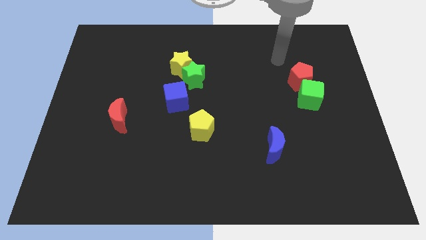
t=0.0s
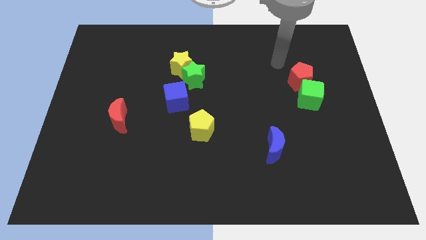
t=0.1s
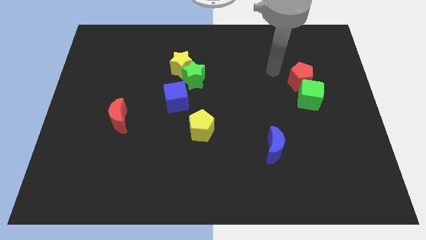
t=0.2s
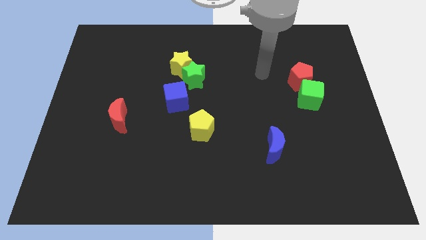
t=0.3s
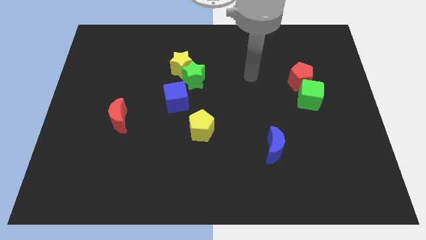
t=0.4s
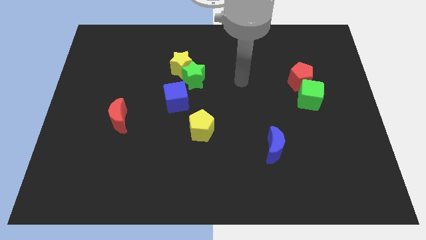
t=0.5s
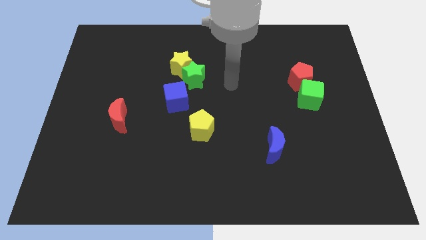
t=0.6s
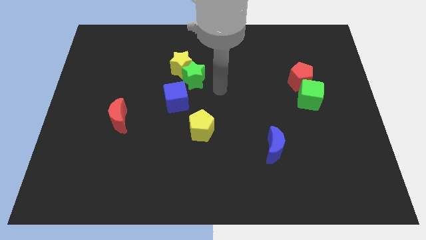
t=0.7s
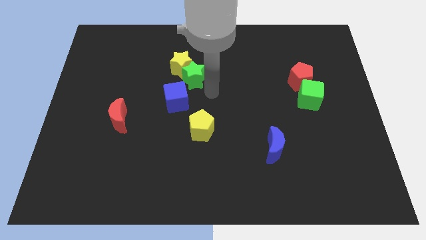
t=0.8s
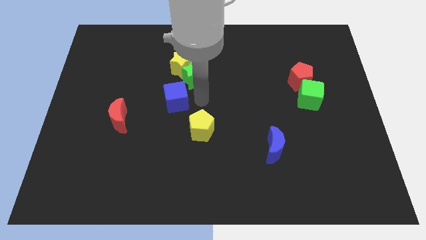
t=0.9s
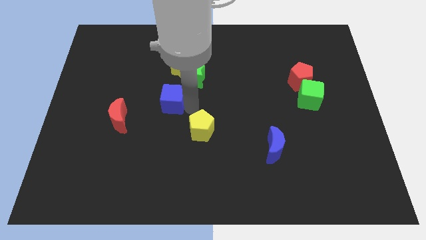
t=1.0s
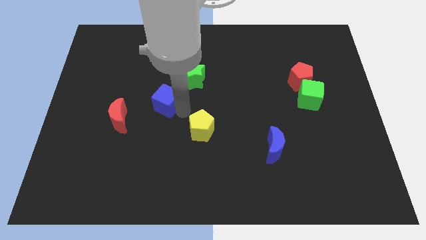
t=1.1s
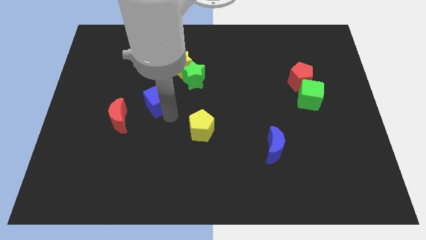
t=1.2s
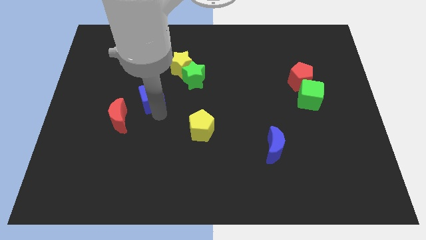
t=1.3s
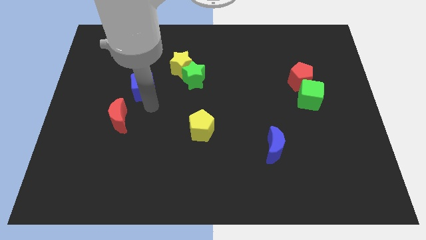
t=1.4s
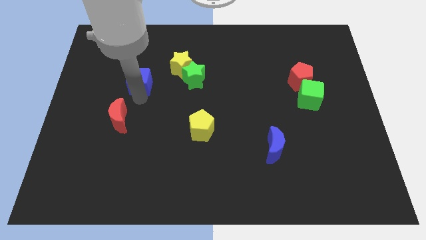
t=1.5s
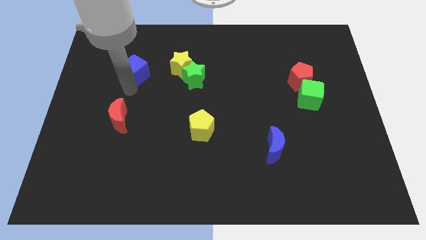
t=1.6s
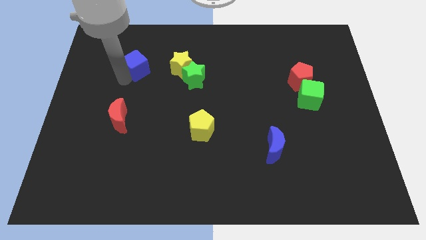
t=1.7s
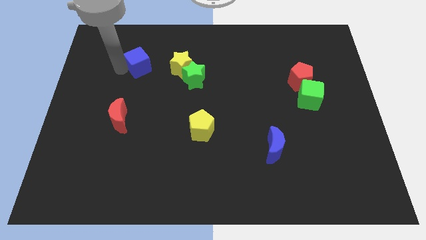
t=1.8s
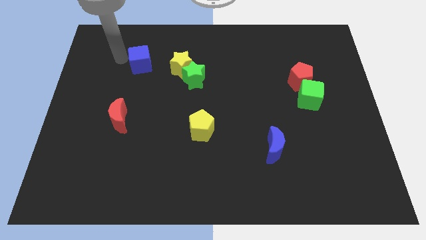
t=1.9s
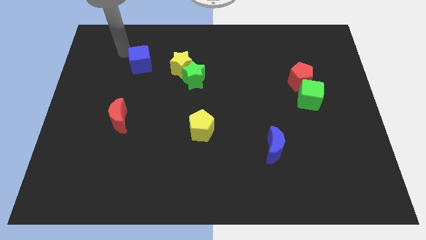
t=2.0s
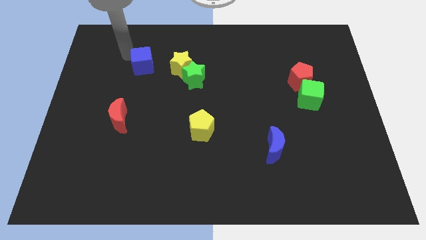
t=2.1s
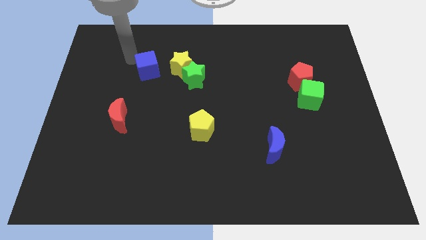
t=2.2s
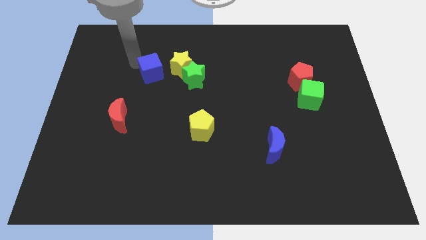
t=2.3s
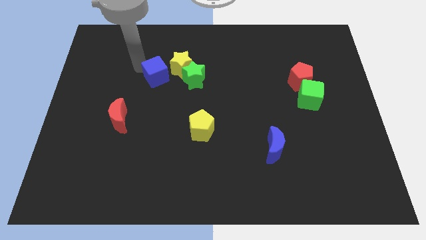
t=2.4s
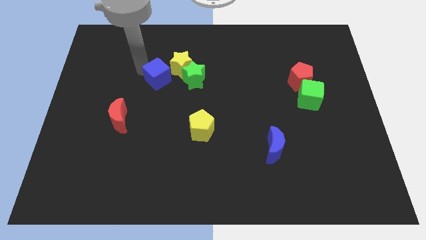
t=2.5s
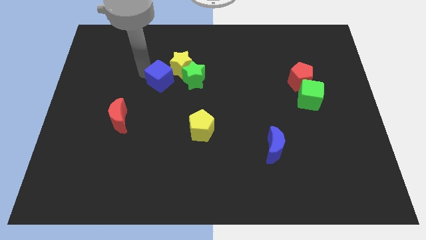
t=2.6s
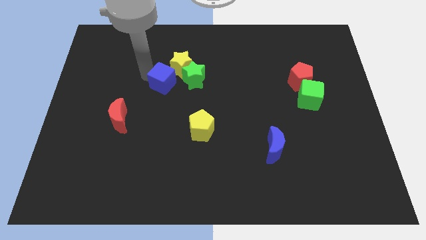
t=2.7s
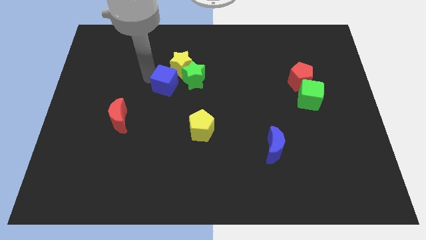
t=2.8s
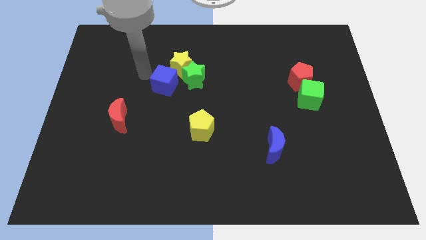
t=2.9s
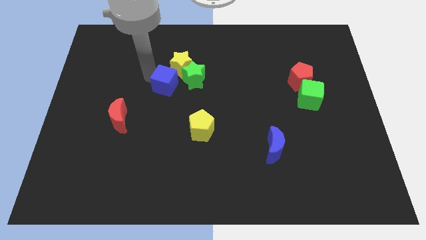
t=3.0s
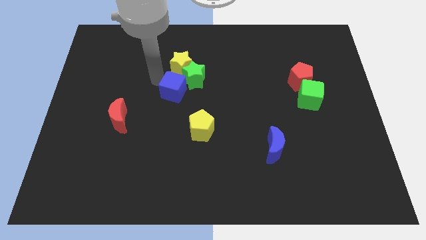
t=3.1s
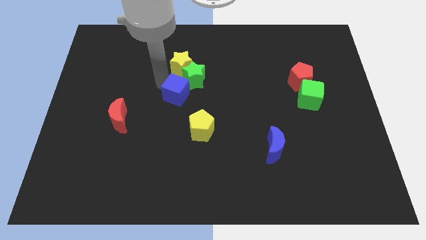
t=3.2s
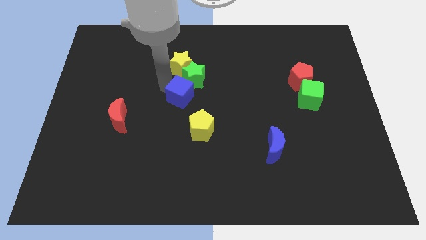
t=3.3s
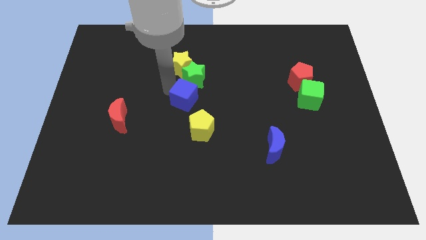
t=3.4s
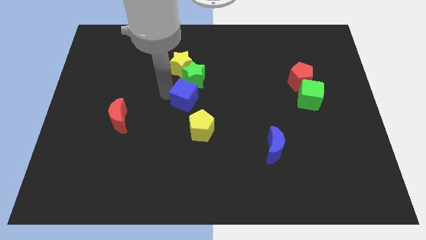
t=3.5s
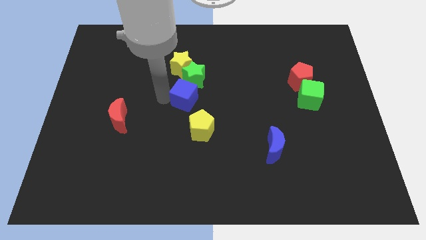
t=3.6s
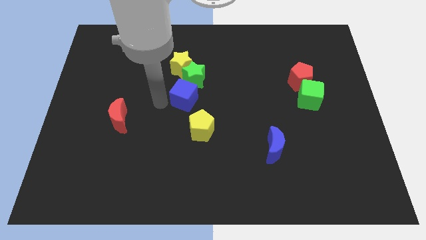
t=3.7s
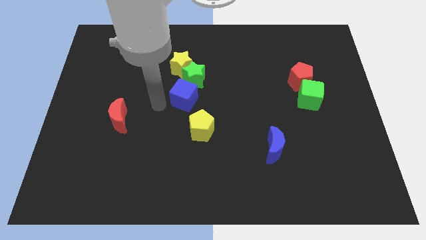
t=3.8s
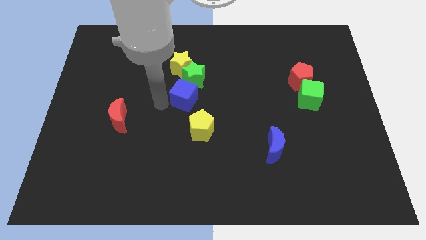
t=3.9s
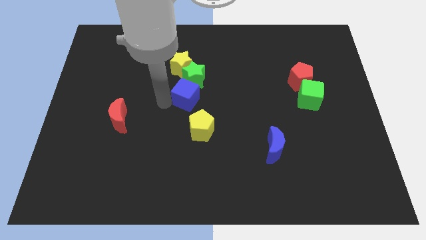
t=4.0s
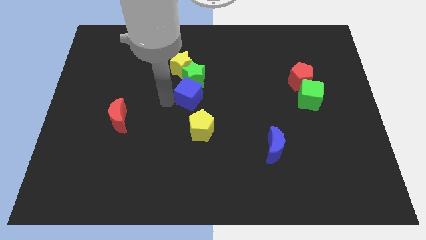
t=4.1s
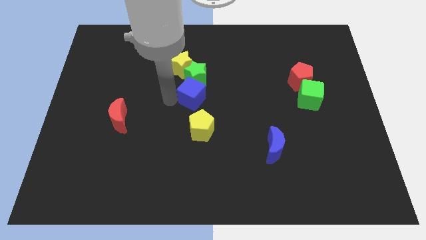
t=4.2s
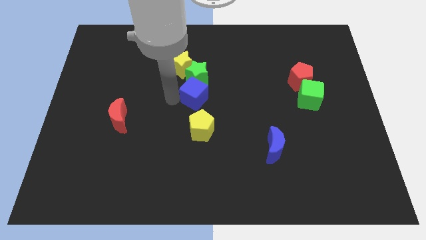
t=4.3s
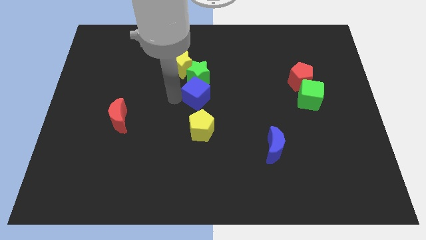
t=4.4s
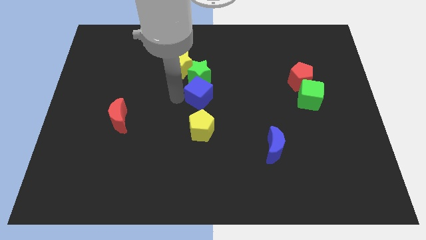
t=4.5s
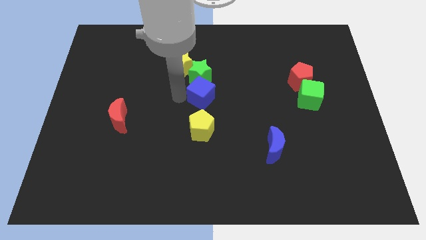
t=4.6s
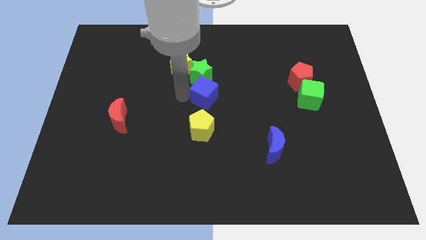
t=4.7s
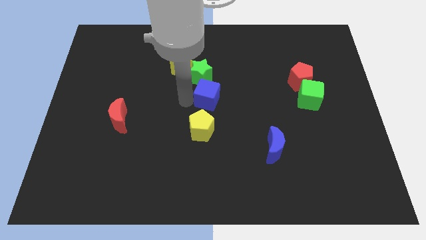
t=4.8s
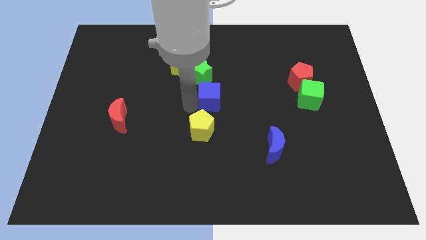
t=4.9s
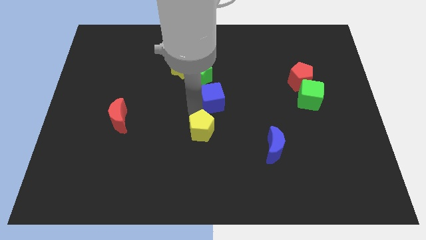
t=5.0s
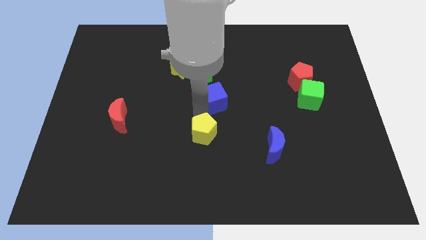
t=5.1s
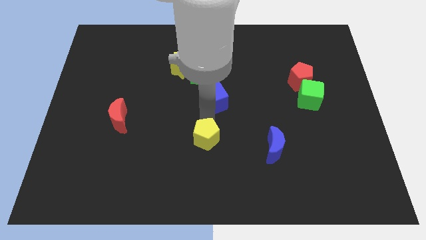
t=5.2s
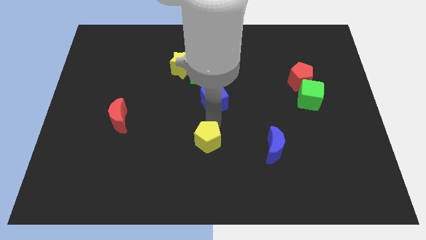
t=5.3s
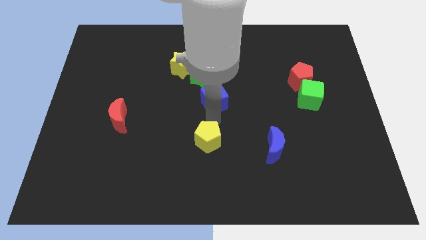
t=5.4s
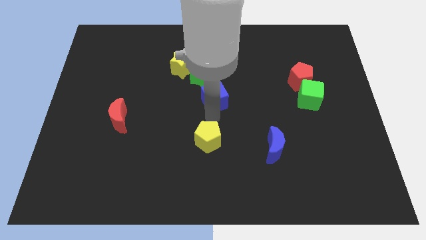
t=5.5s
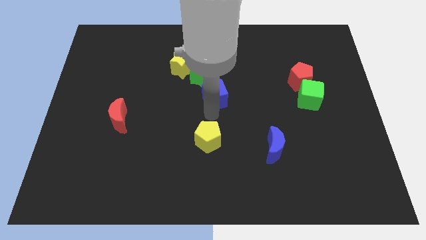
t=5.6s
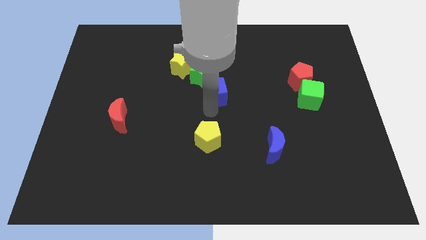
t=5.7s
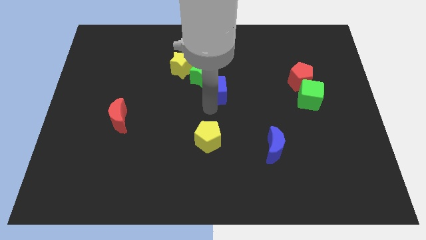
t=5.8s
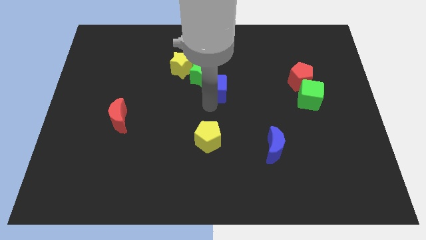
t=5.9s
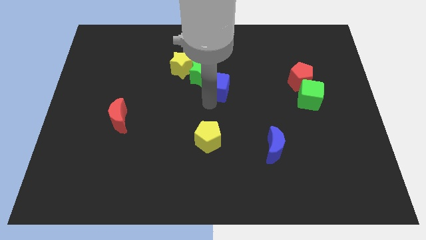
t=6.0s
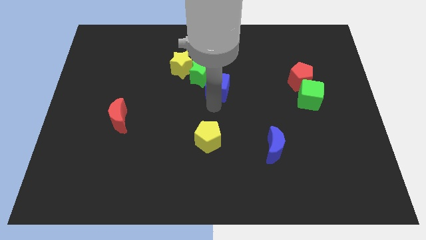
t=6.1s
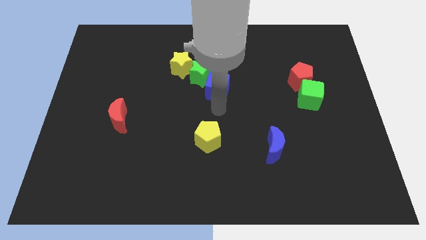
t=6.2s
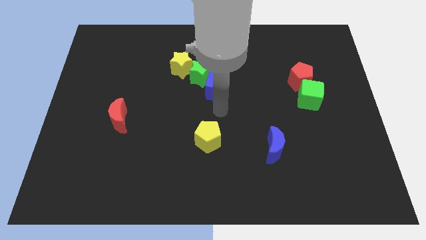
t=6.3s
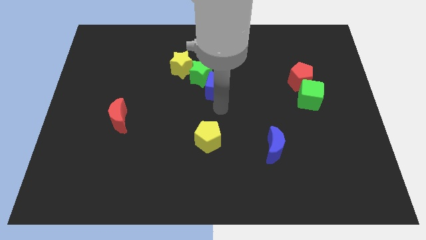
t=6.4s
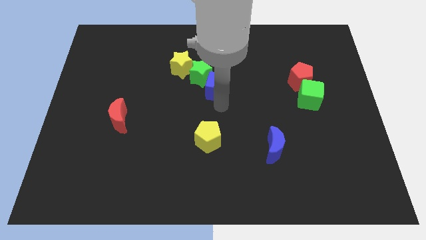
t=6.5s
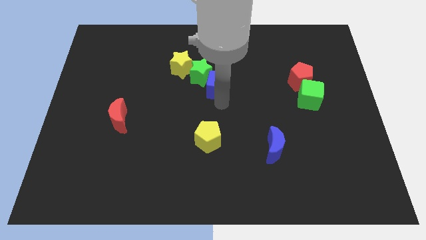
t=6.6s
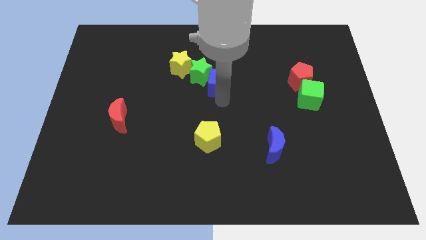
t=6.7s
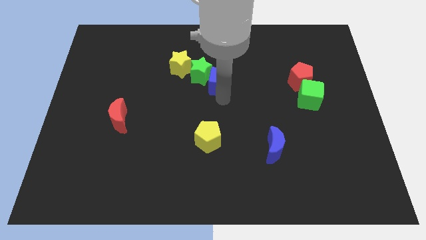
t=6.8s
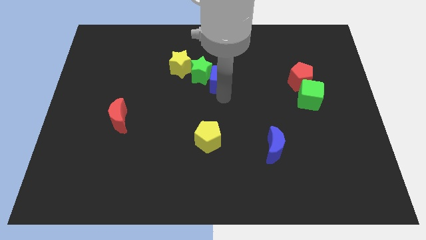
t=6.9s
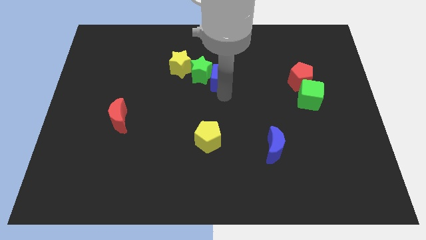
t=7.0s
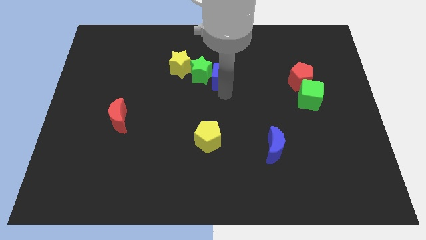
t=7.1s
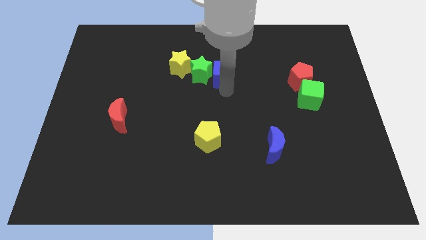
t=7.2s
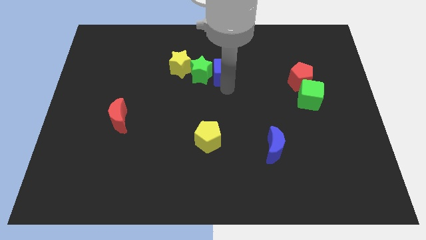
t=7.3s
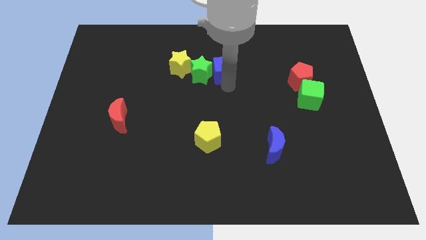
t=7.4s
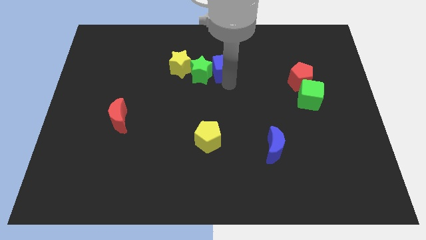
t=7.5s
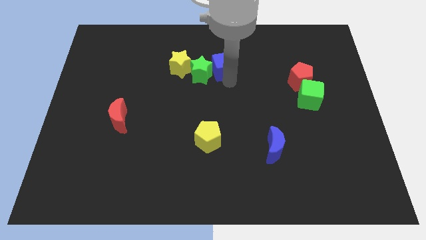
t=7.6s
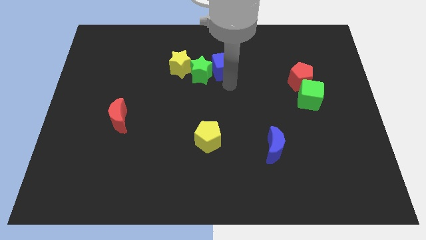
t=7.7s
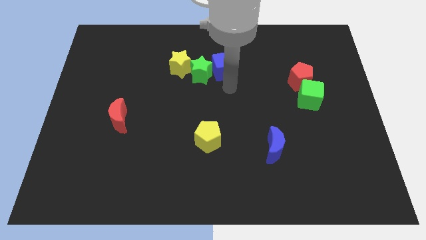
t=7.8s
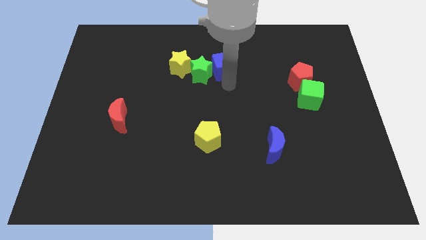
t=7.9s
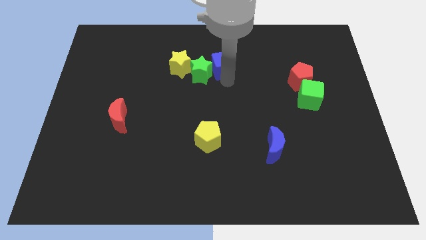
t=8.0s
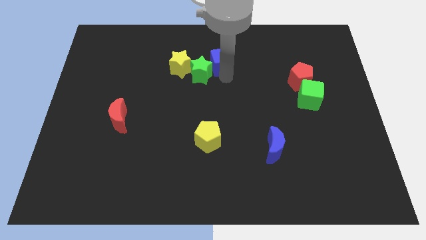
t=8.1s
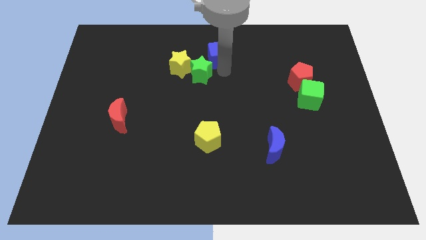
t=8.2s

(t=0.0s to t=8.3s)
put the blue cube to the top side

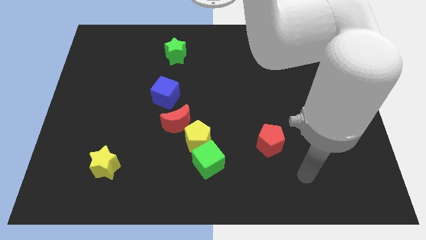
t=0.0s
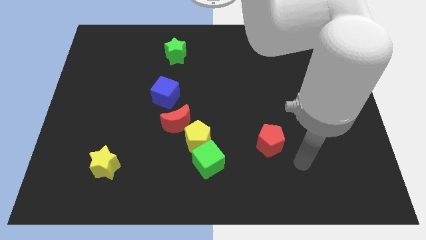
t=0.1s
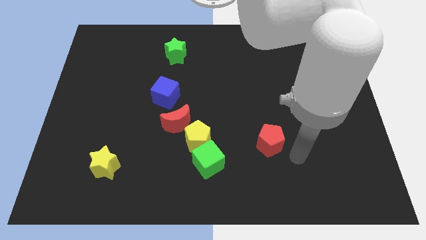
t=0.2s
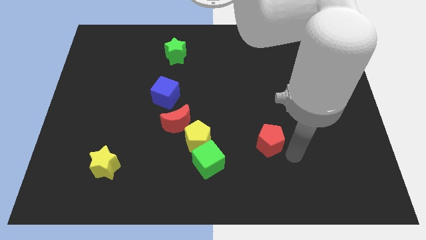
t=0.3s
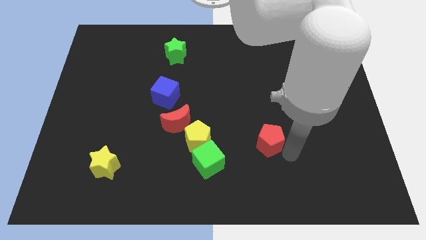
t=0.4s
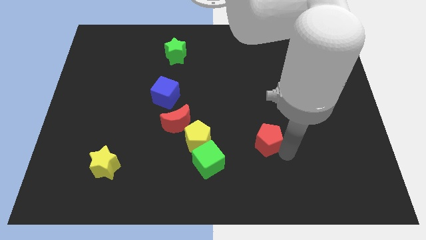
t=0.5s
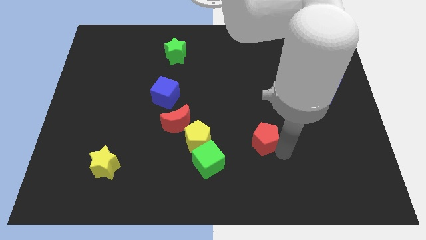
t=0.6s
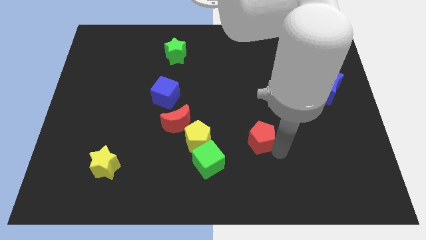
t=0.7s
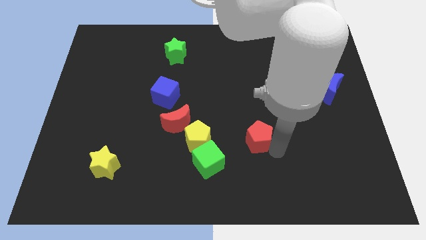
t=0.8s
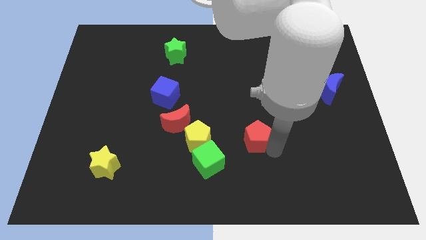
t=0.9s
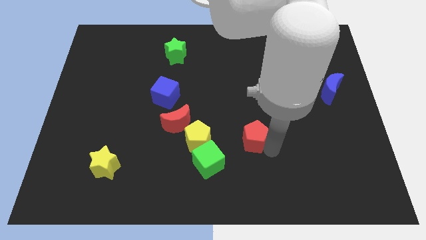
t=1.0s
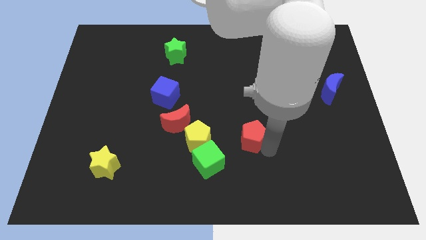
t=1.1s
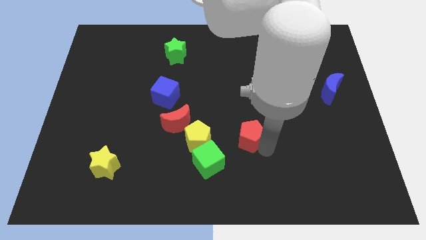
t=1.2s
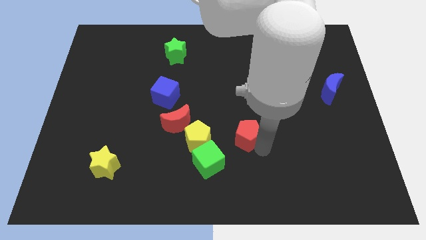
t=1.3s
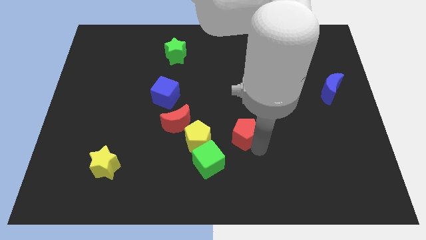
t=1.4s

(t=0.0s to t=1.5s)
put the red pentagon to the center
